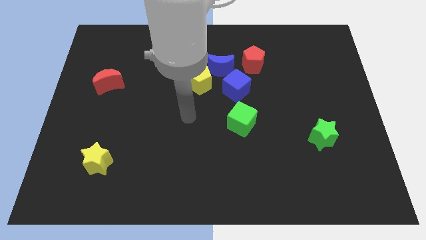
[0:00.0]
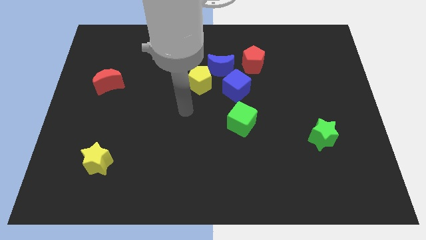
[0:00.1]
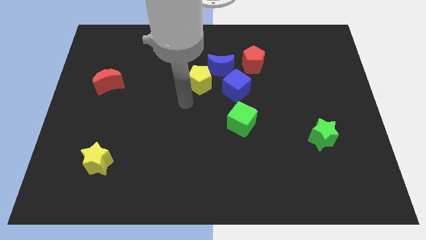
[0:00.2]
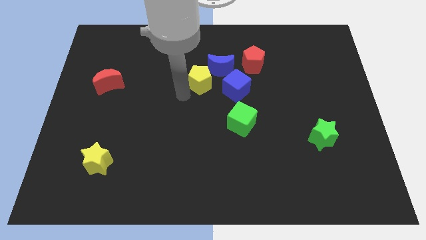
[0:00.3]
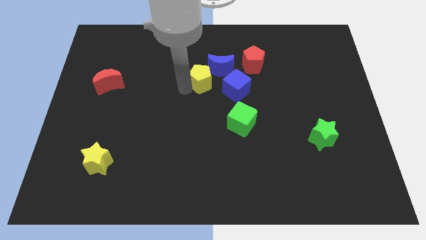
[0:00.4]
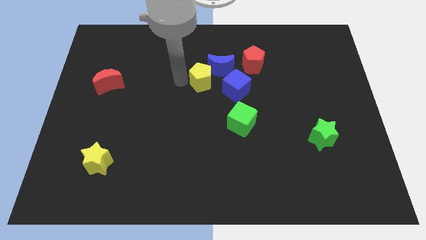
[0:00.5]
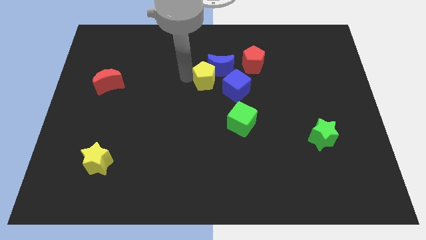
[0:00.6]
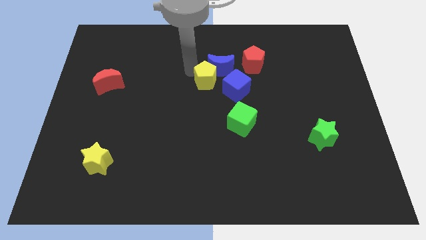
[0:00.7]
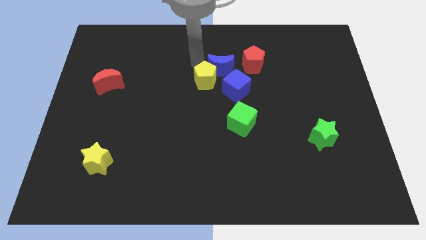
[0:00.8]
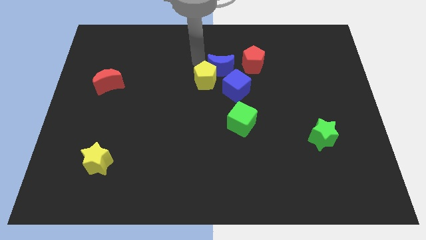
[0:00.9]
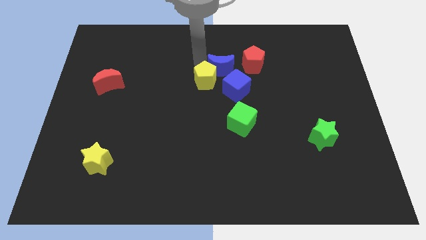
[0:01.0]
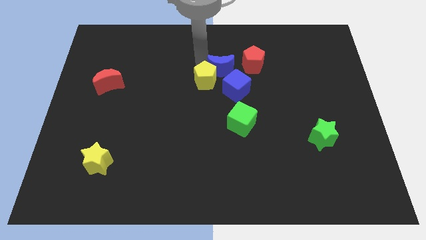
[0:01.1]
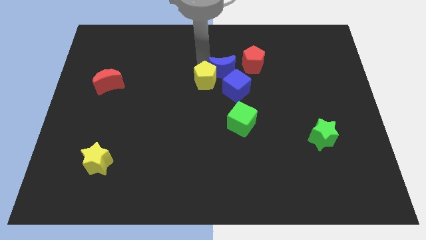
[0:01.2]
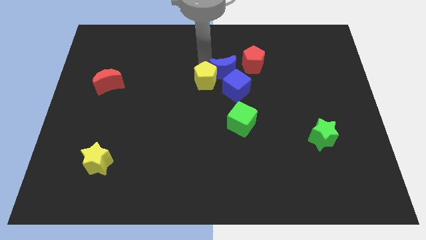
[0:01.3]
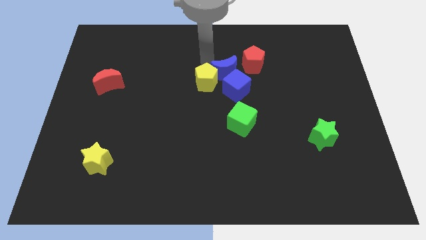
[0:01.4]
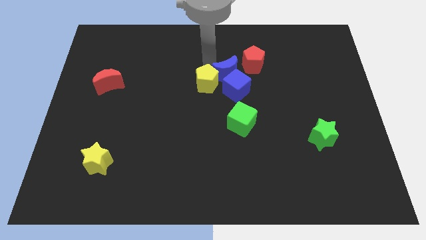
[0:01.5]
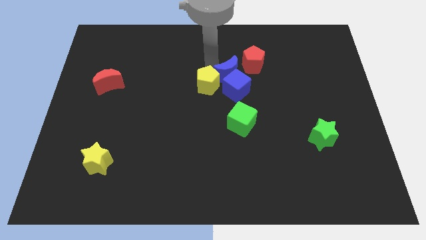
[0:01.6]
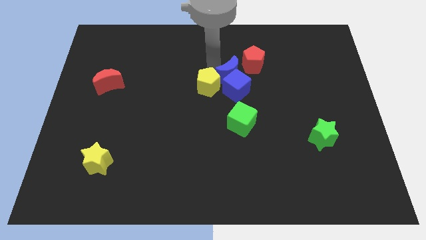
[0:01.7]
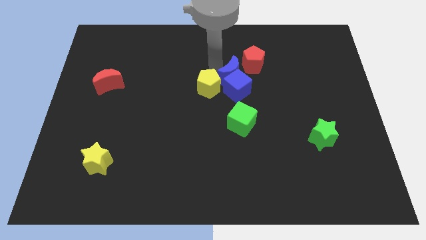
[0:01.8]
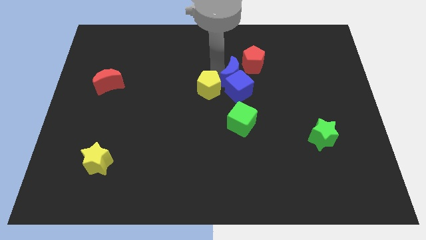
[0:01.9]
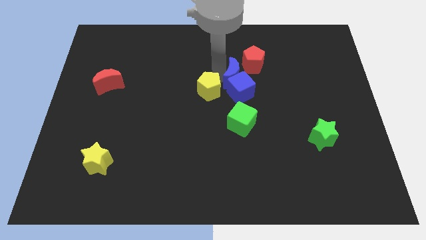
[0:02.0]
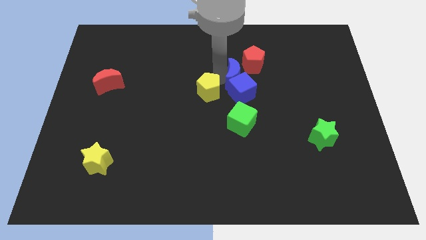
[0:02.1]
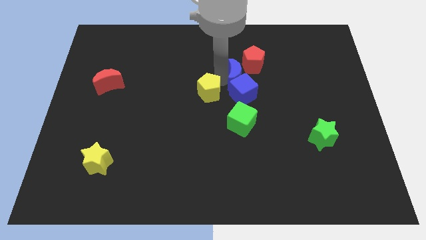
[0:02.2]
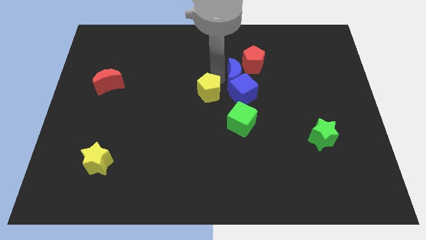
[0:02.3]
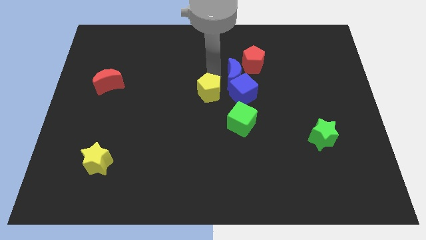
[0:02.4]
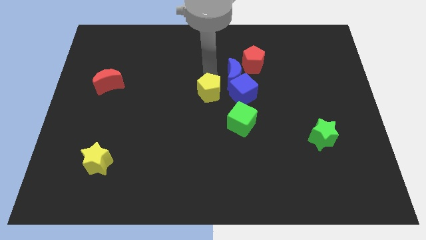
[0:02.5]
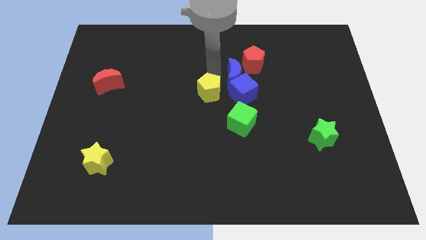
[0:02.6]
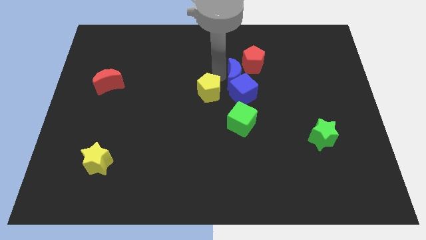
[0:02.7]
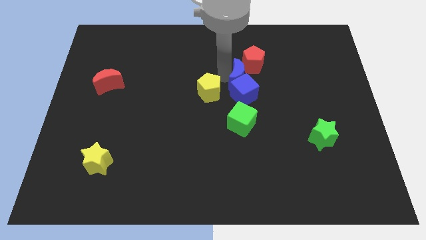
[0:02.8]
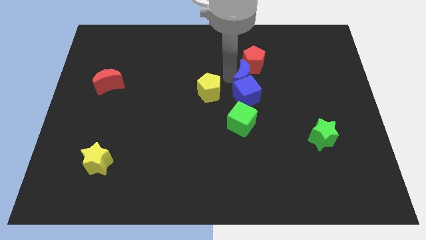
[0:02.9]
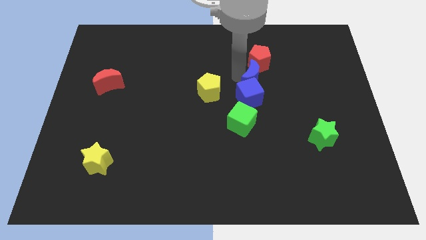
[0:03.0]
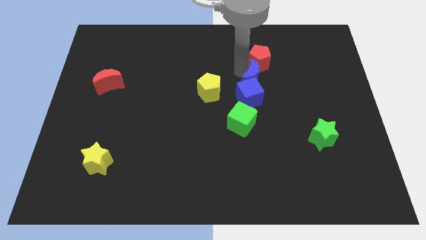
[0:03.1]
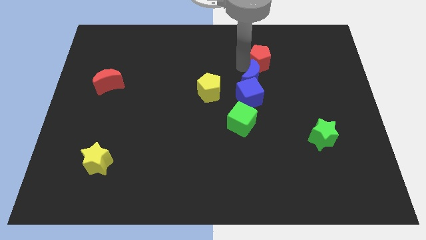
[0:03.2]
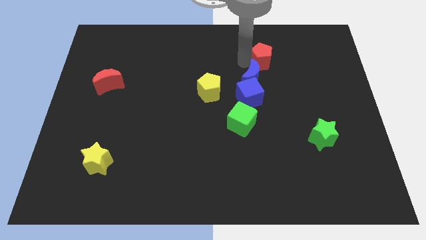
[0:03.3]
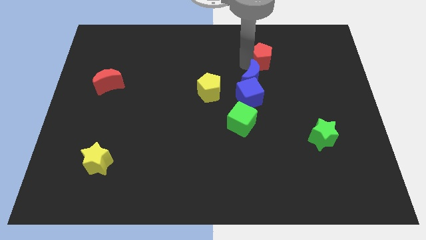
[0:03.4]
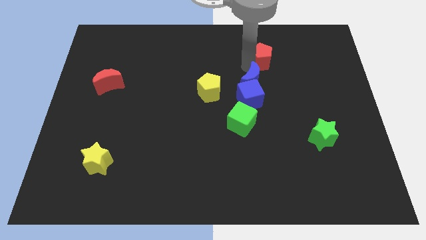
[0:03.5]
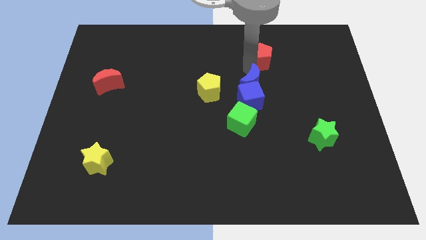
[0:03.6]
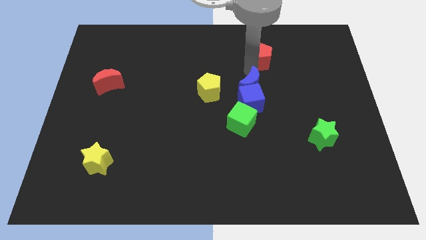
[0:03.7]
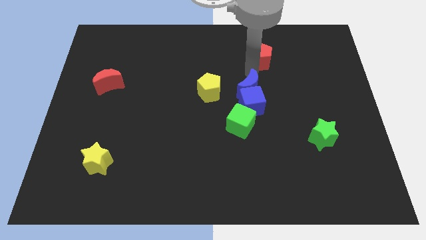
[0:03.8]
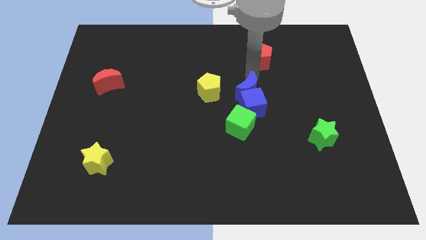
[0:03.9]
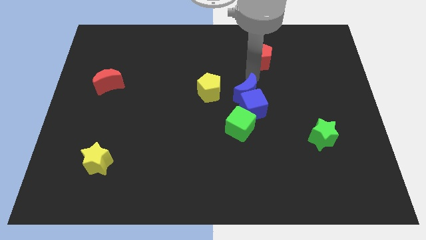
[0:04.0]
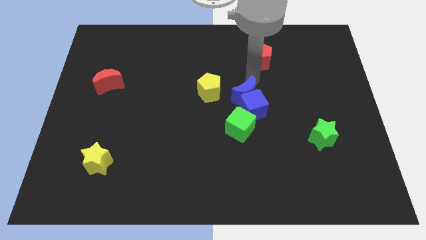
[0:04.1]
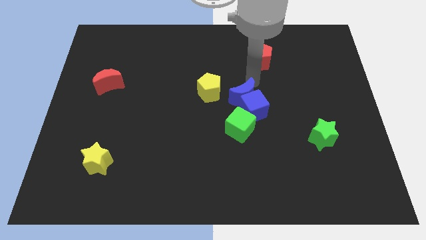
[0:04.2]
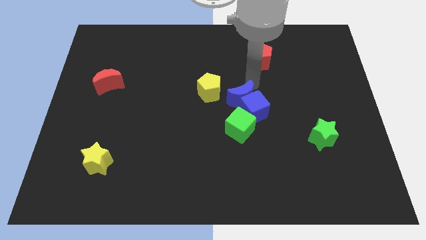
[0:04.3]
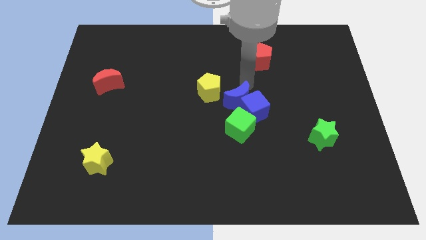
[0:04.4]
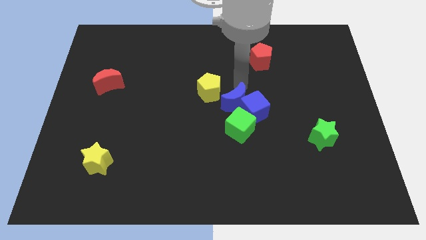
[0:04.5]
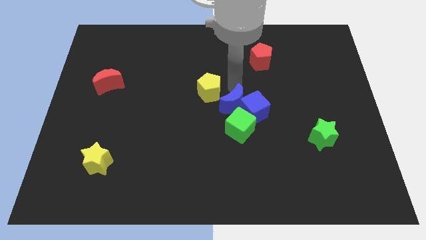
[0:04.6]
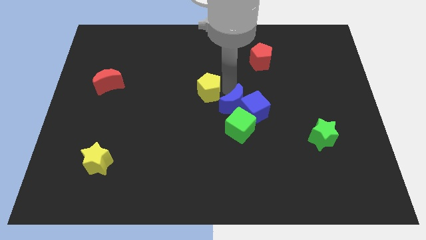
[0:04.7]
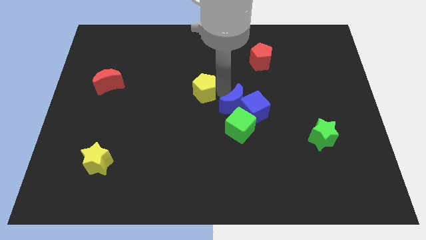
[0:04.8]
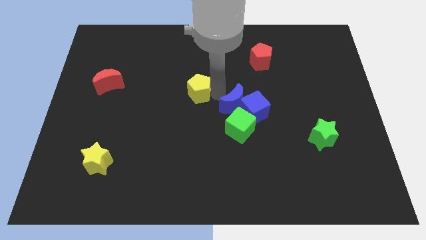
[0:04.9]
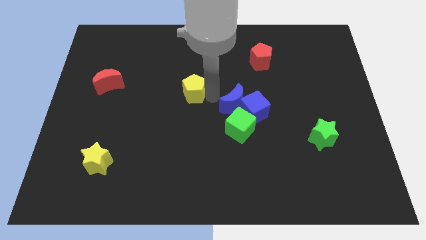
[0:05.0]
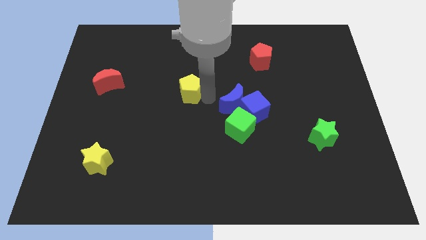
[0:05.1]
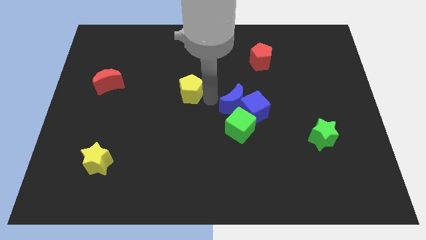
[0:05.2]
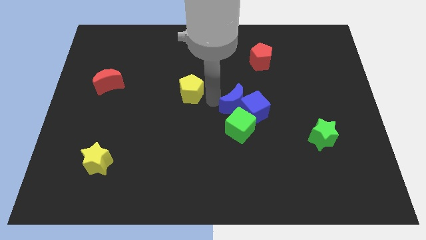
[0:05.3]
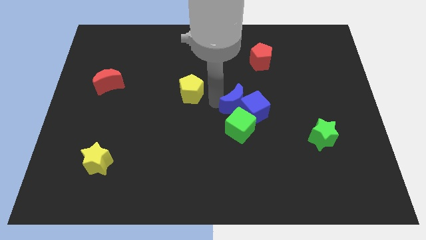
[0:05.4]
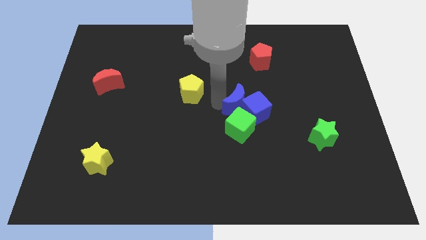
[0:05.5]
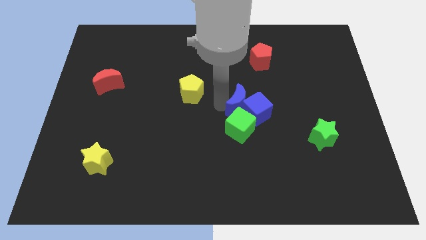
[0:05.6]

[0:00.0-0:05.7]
move the blue moon diagonally up and to the right of the green cube

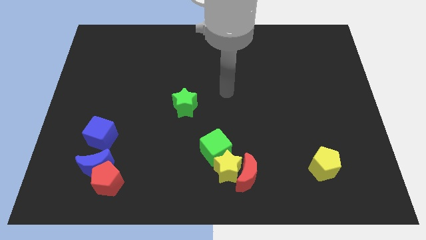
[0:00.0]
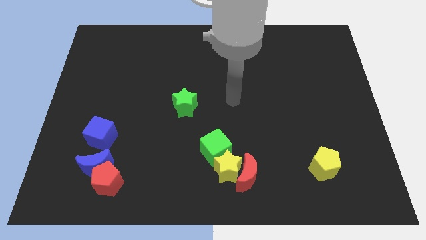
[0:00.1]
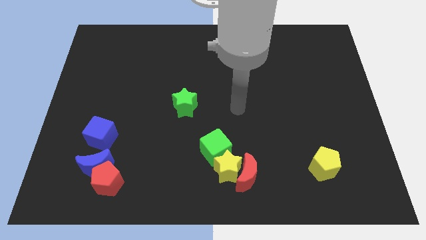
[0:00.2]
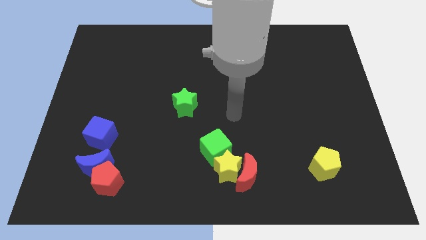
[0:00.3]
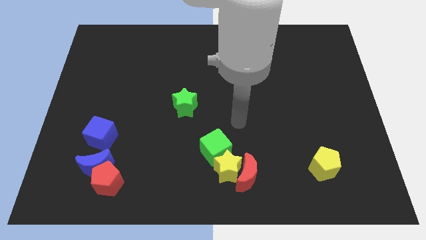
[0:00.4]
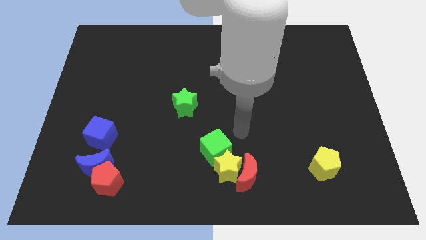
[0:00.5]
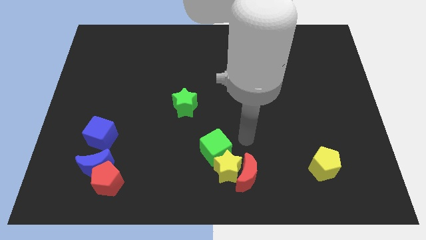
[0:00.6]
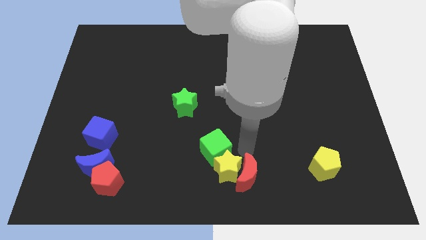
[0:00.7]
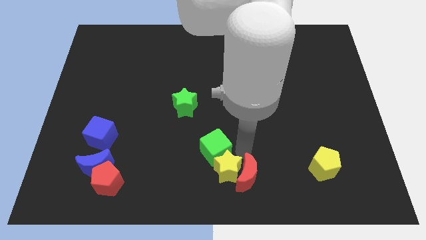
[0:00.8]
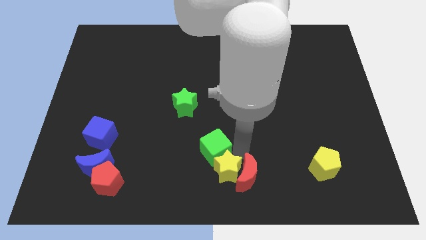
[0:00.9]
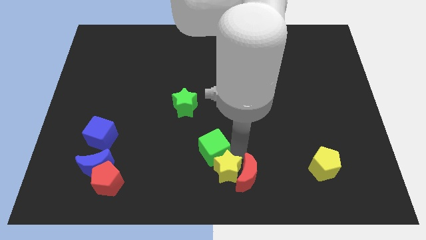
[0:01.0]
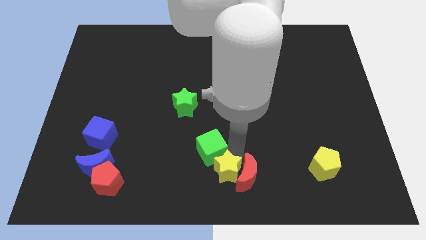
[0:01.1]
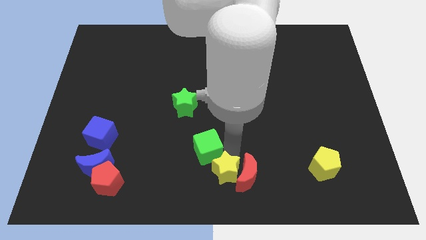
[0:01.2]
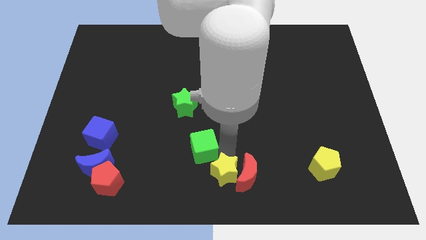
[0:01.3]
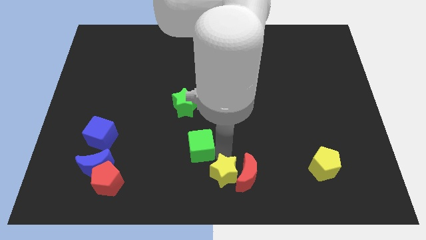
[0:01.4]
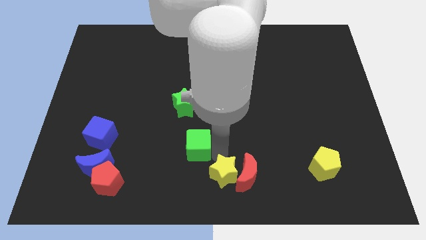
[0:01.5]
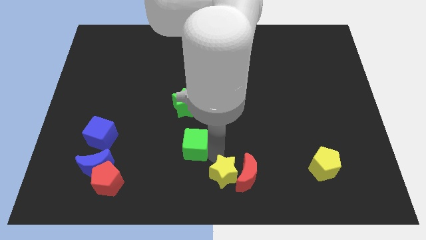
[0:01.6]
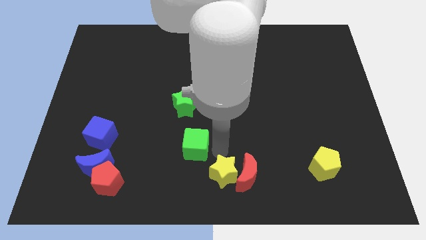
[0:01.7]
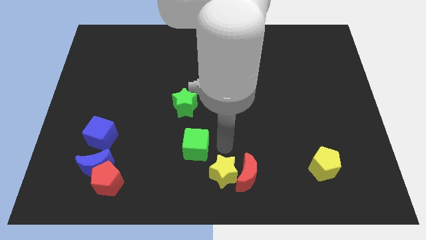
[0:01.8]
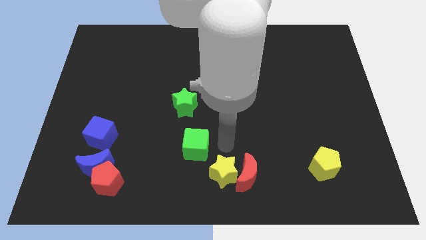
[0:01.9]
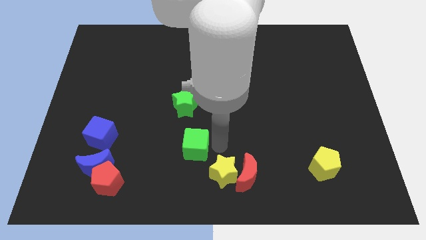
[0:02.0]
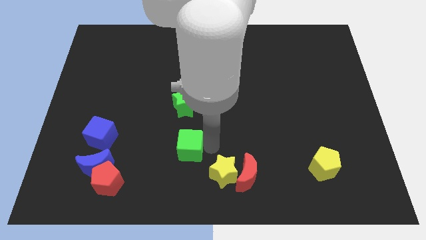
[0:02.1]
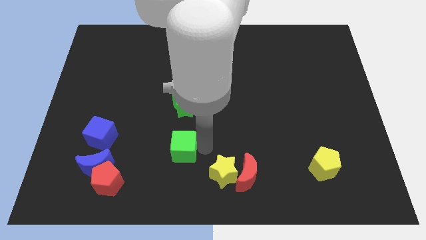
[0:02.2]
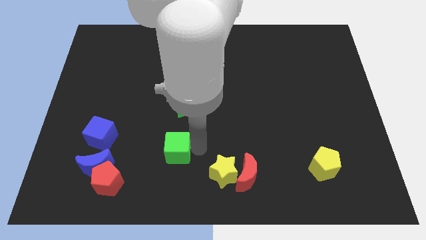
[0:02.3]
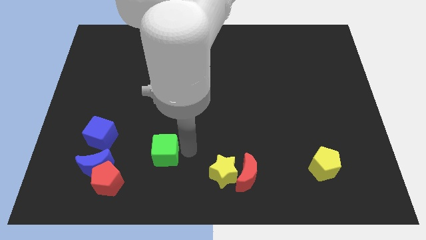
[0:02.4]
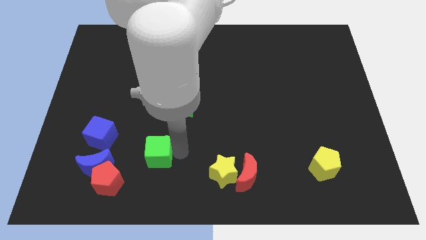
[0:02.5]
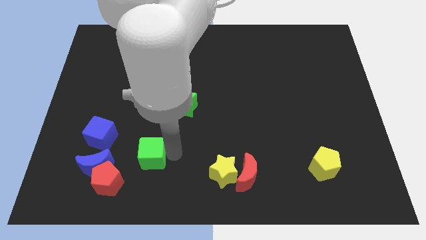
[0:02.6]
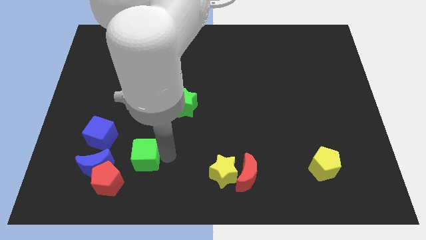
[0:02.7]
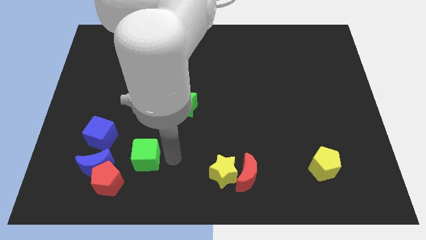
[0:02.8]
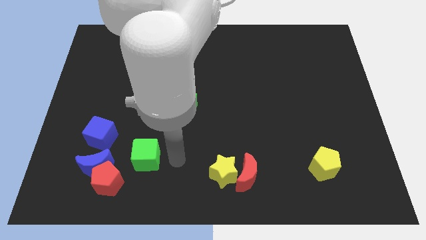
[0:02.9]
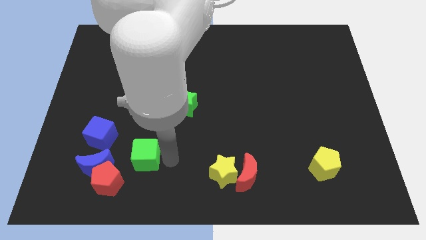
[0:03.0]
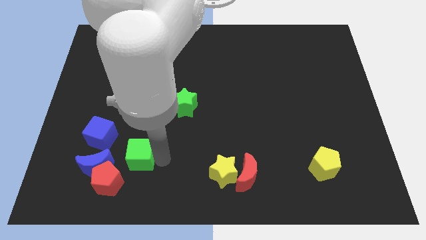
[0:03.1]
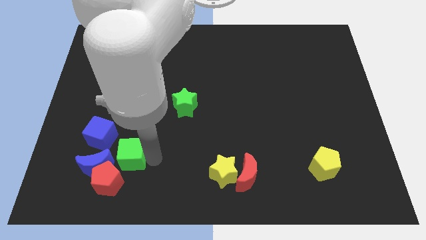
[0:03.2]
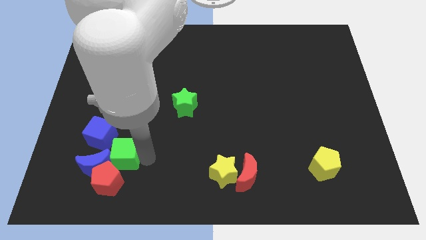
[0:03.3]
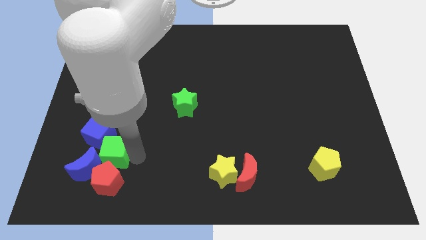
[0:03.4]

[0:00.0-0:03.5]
push the green cube to the top left side of the red pentagon
